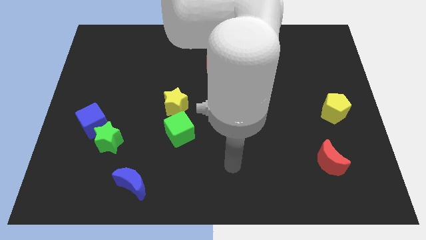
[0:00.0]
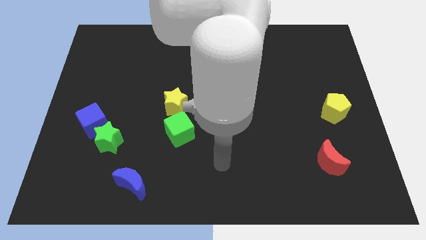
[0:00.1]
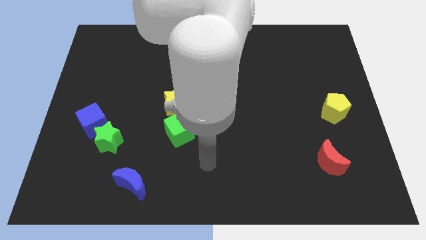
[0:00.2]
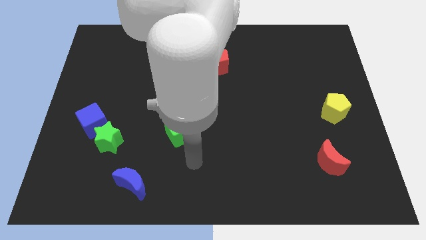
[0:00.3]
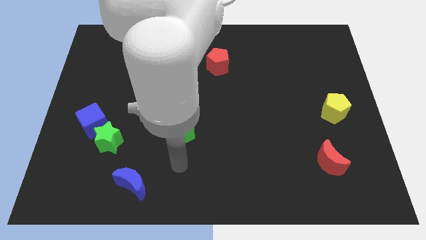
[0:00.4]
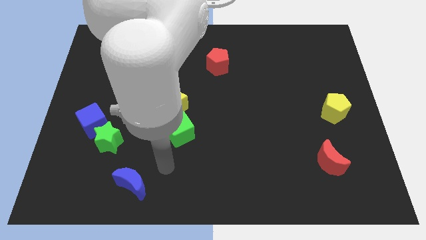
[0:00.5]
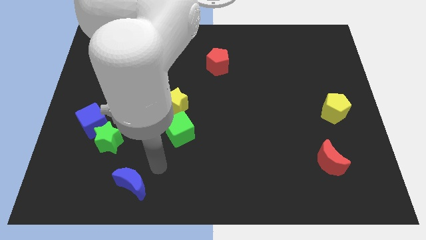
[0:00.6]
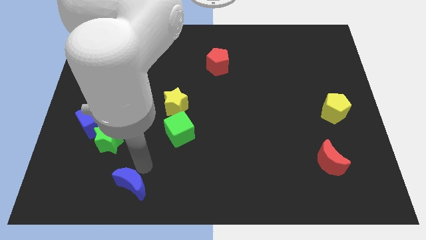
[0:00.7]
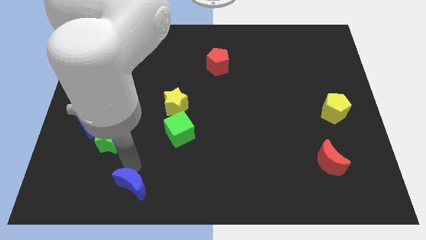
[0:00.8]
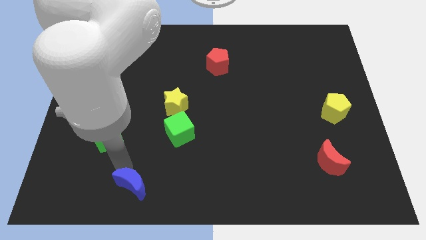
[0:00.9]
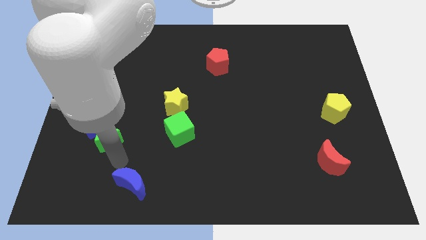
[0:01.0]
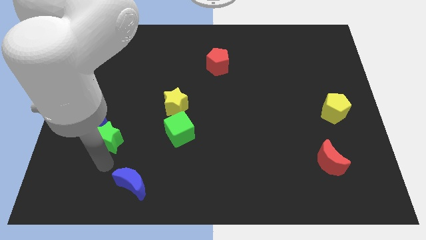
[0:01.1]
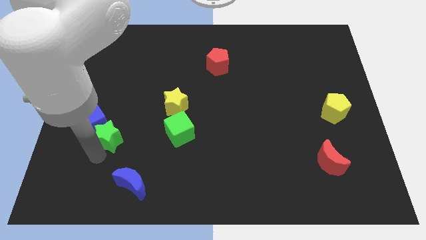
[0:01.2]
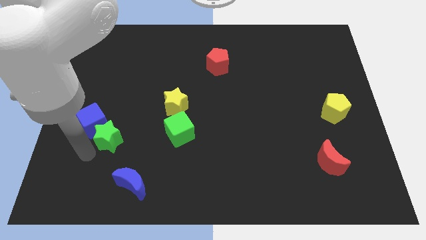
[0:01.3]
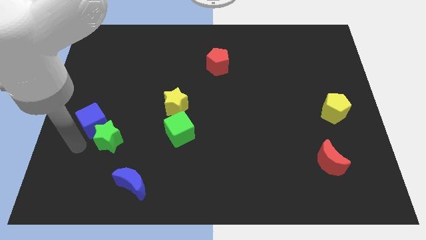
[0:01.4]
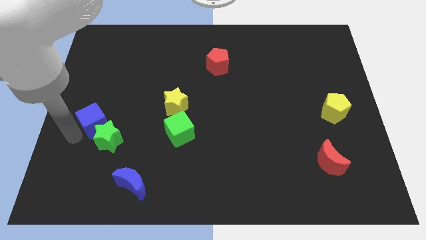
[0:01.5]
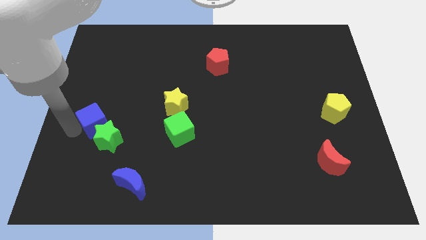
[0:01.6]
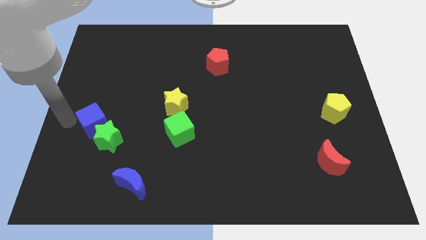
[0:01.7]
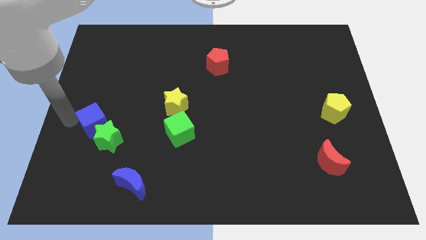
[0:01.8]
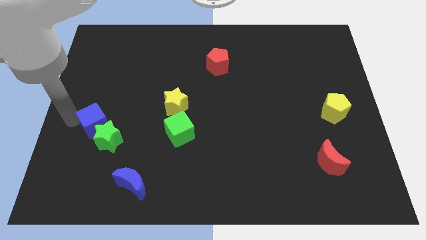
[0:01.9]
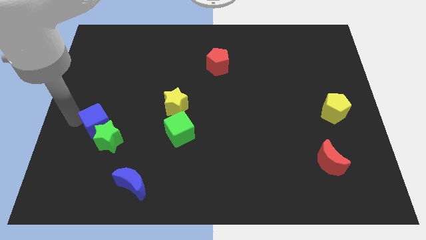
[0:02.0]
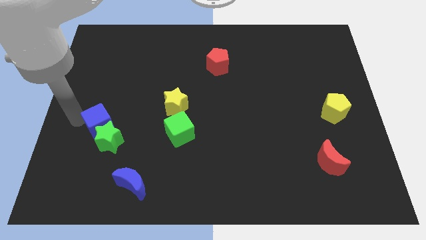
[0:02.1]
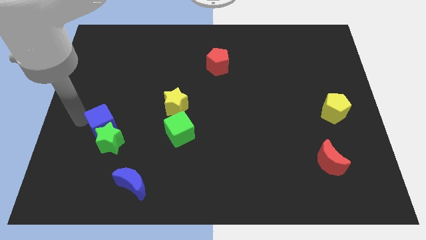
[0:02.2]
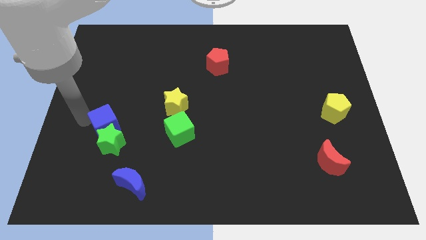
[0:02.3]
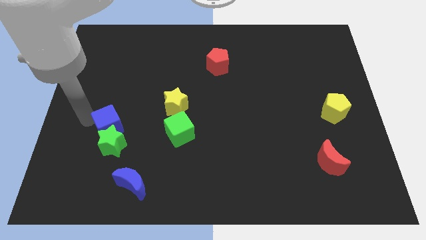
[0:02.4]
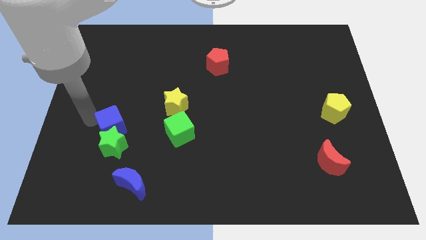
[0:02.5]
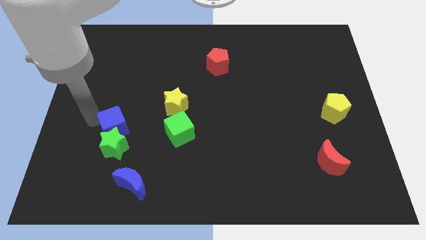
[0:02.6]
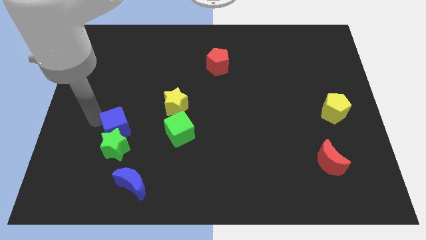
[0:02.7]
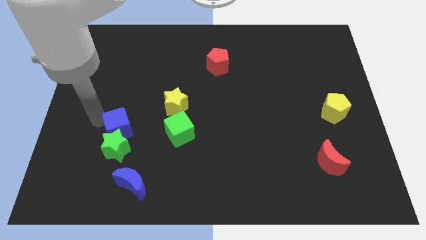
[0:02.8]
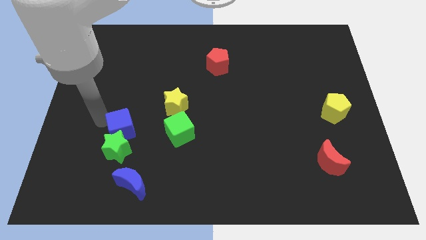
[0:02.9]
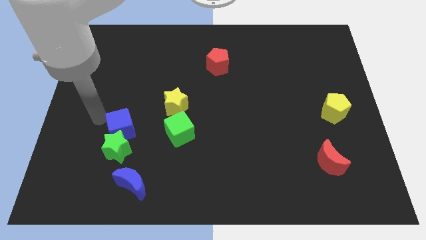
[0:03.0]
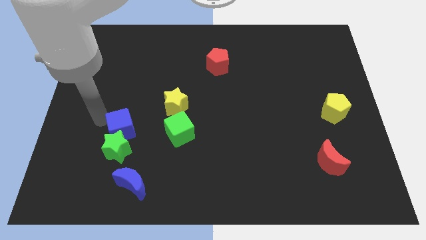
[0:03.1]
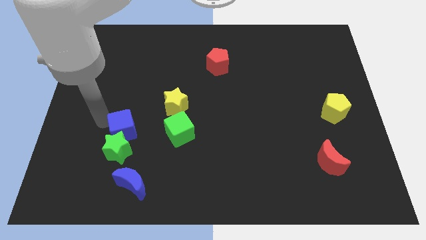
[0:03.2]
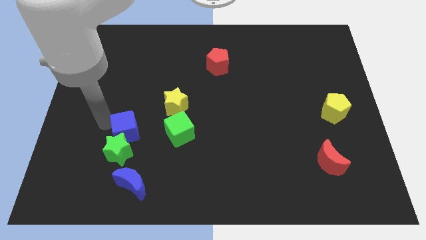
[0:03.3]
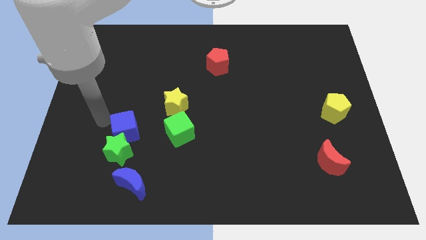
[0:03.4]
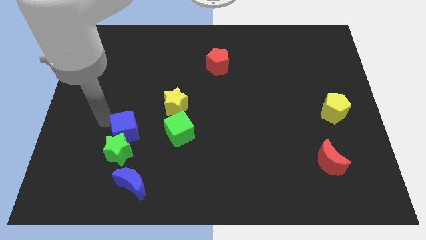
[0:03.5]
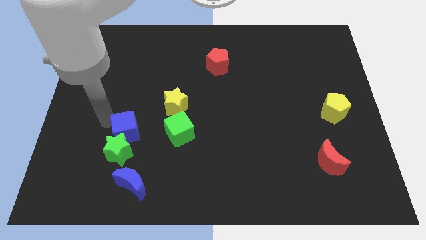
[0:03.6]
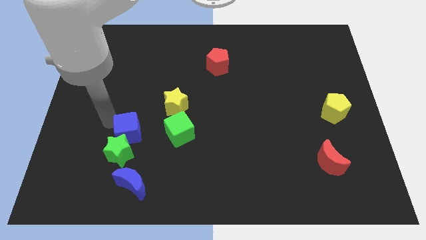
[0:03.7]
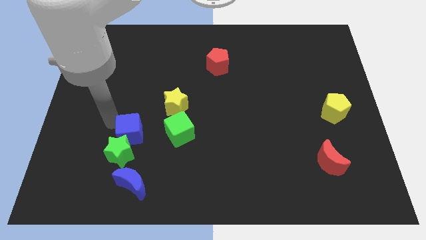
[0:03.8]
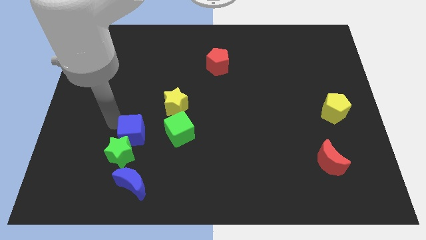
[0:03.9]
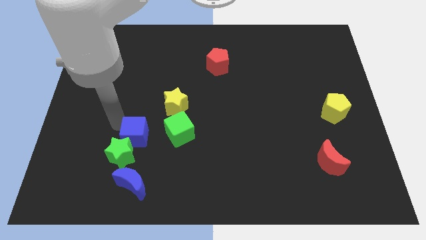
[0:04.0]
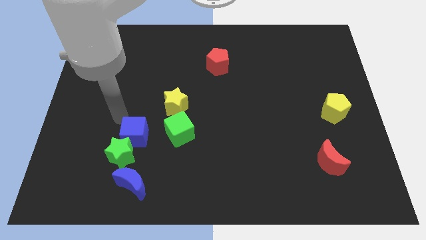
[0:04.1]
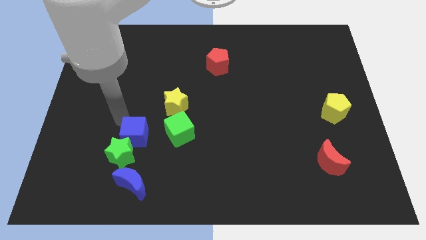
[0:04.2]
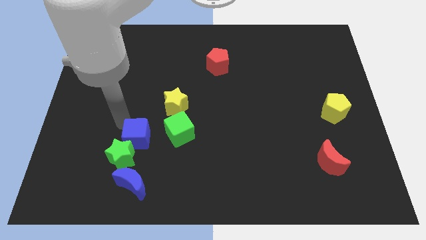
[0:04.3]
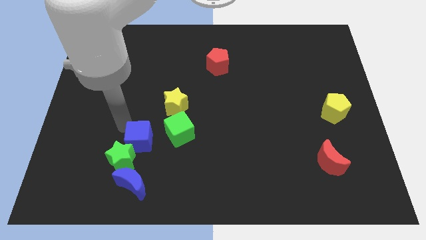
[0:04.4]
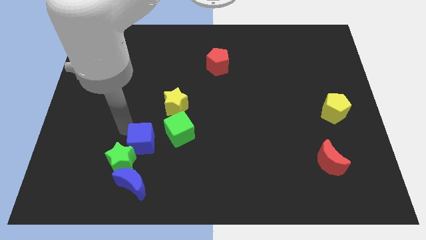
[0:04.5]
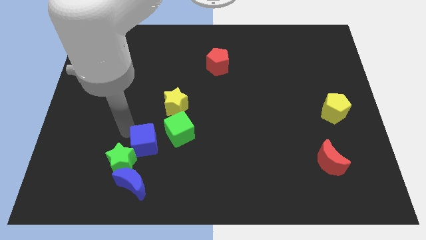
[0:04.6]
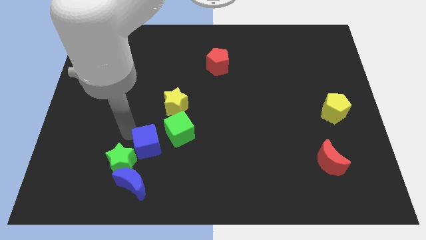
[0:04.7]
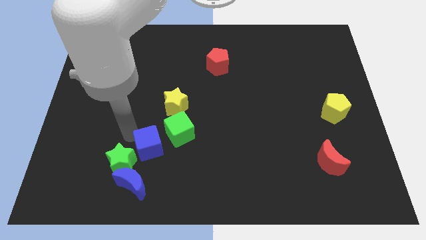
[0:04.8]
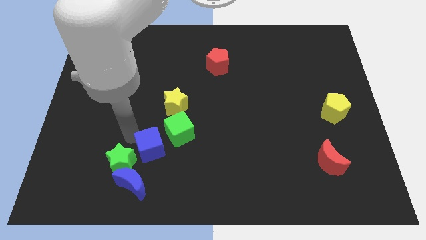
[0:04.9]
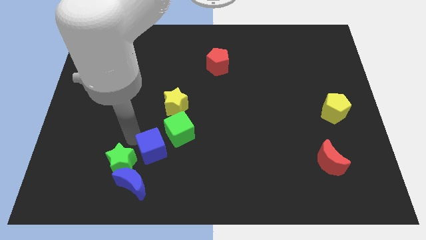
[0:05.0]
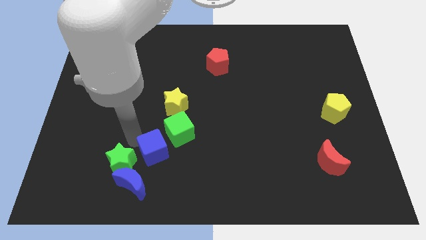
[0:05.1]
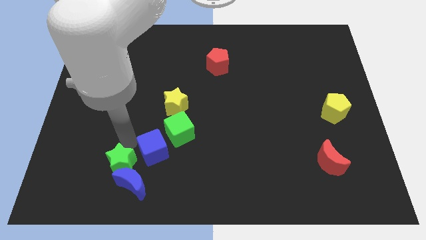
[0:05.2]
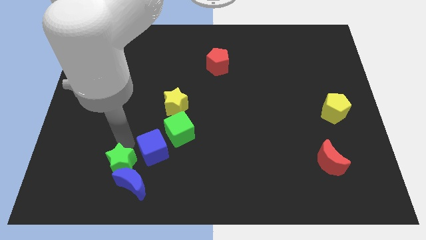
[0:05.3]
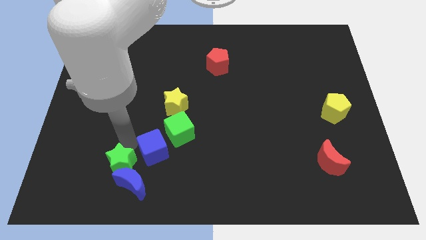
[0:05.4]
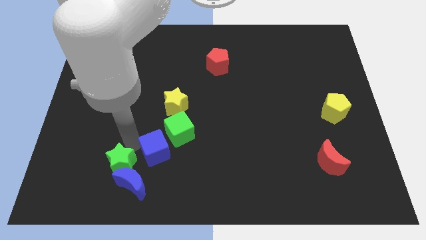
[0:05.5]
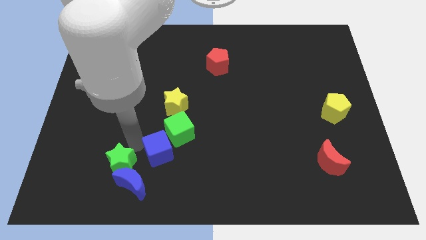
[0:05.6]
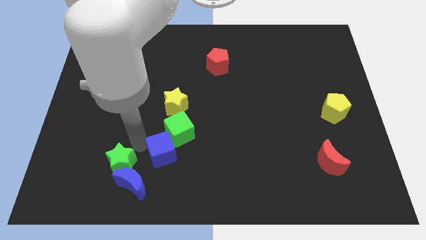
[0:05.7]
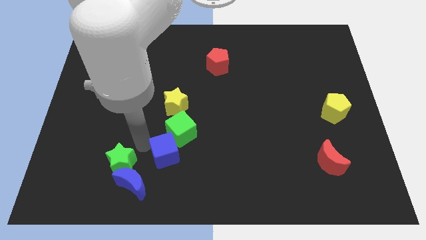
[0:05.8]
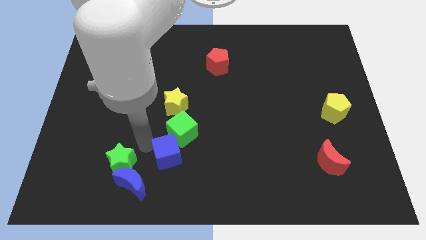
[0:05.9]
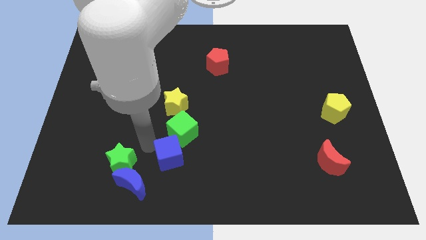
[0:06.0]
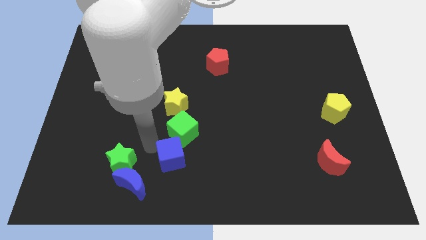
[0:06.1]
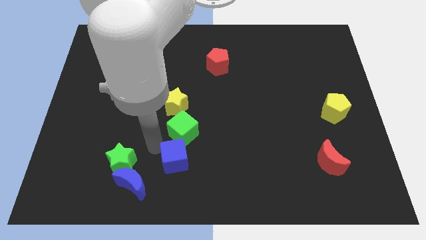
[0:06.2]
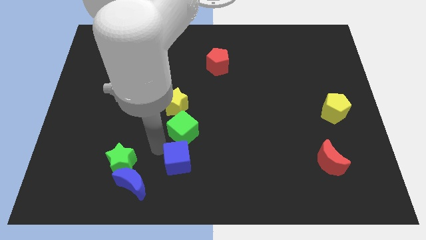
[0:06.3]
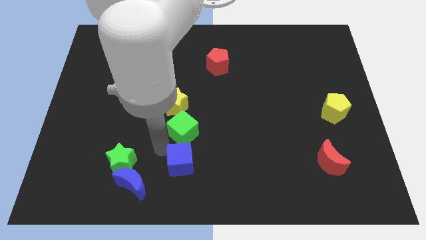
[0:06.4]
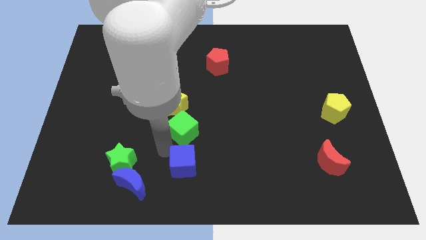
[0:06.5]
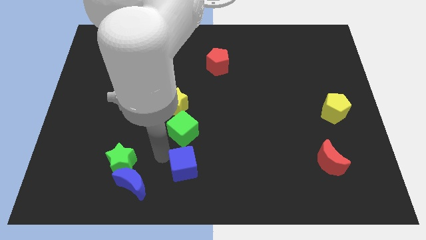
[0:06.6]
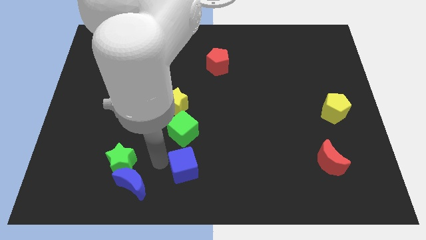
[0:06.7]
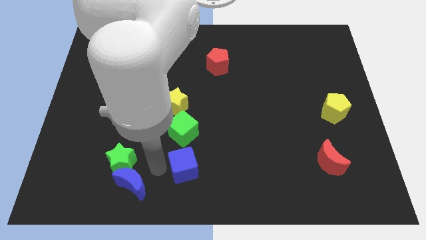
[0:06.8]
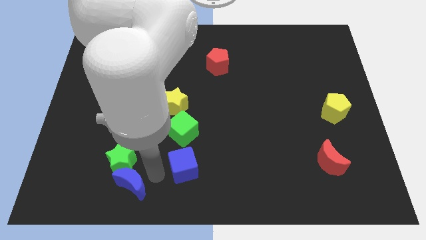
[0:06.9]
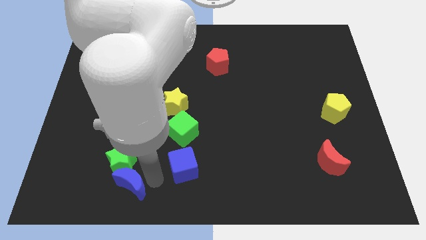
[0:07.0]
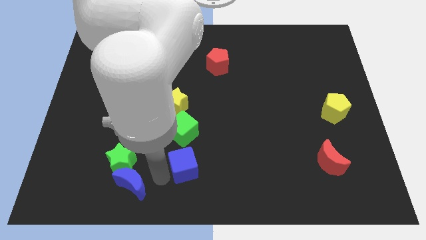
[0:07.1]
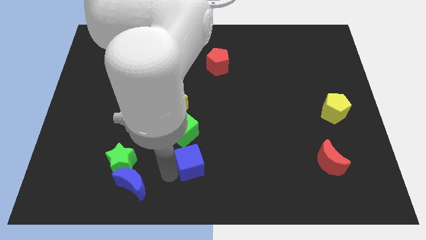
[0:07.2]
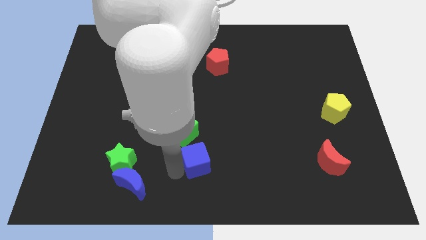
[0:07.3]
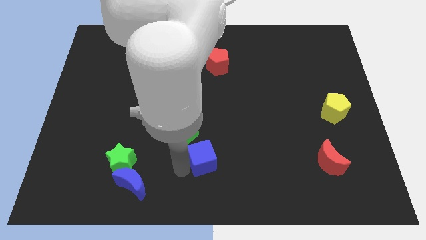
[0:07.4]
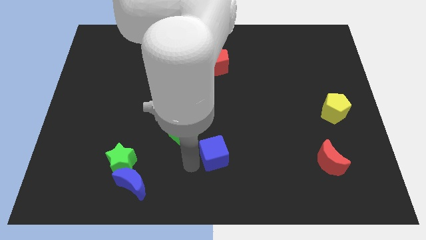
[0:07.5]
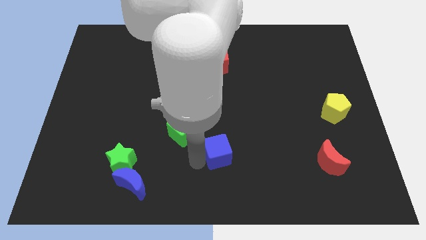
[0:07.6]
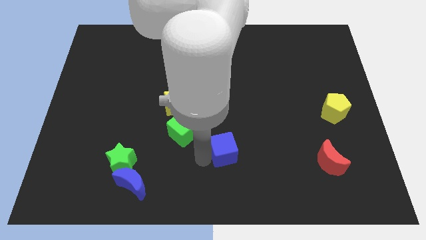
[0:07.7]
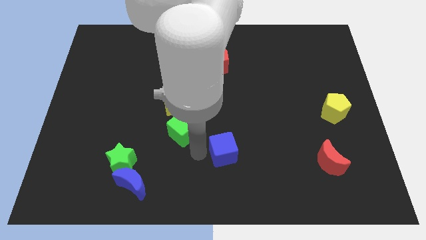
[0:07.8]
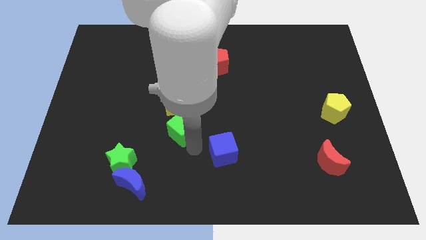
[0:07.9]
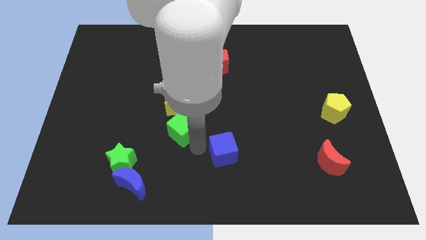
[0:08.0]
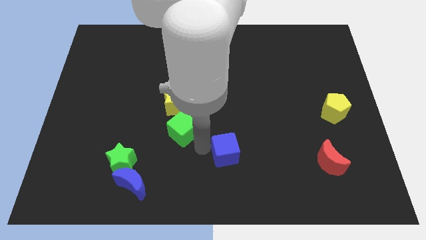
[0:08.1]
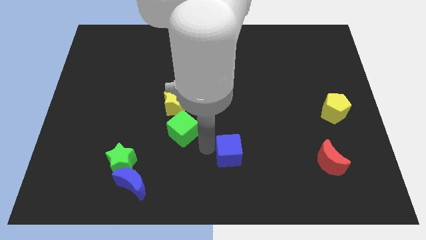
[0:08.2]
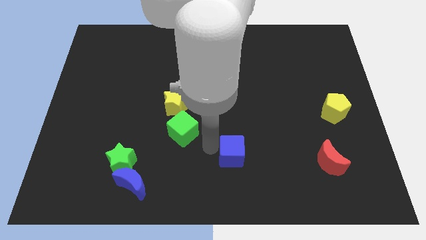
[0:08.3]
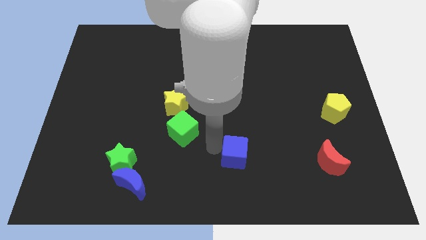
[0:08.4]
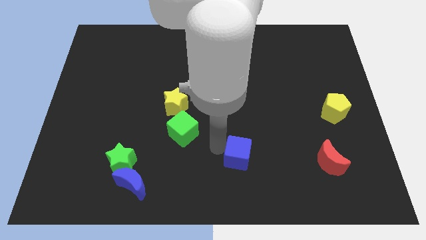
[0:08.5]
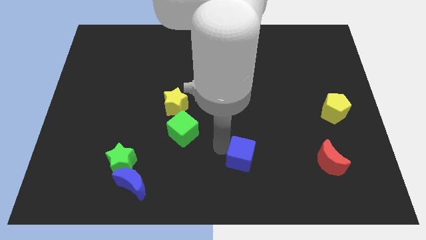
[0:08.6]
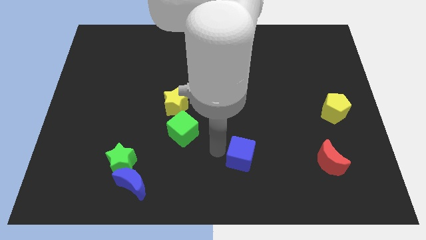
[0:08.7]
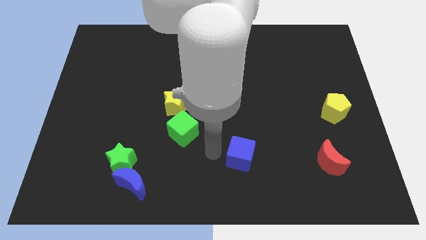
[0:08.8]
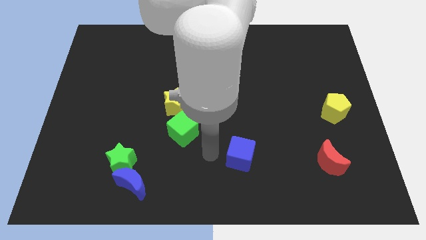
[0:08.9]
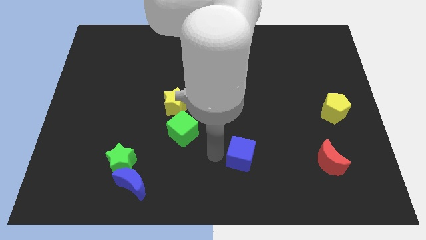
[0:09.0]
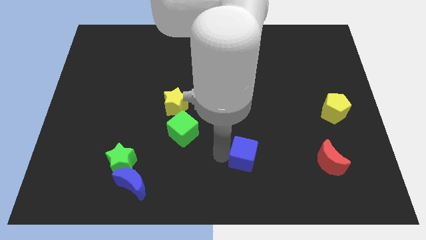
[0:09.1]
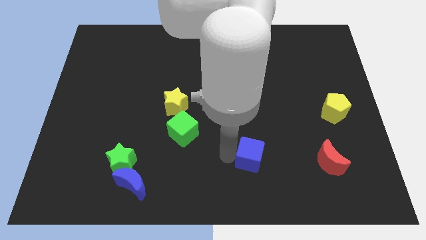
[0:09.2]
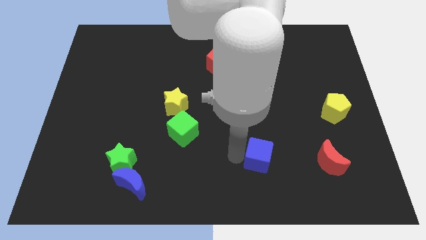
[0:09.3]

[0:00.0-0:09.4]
push the blue cube to the left of the red moon
